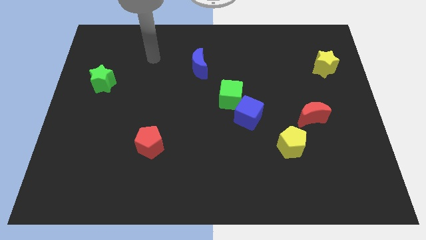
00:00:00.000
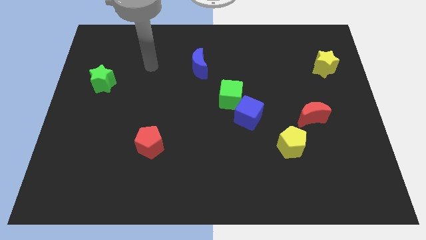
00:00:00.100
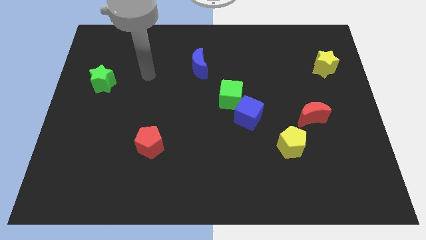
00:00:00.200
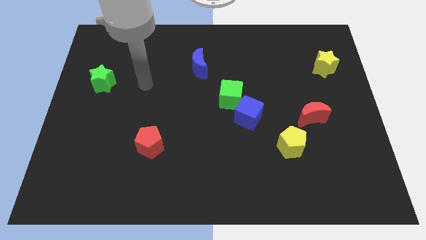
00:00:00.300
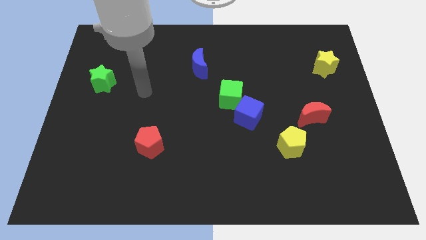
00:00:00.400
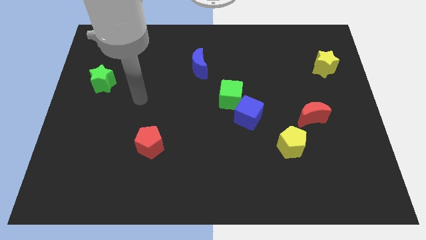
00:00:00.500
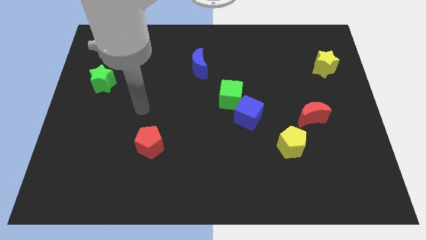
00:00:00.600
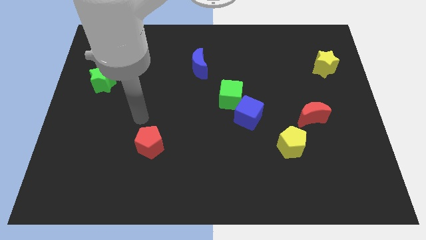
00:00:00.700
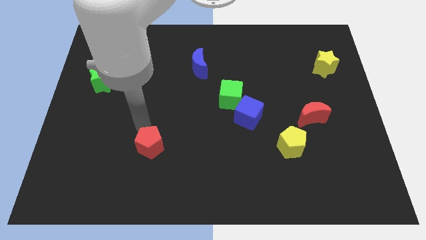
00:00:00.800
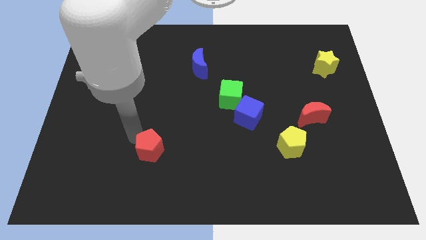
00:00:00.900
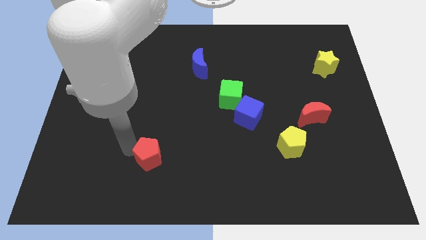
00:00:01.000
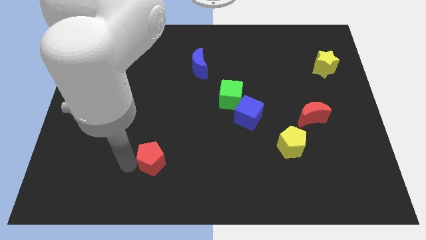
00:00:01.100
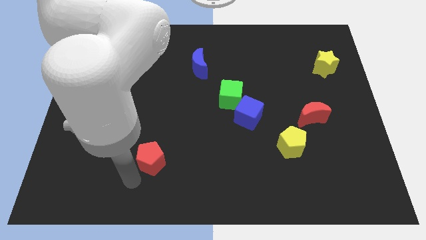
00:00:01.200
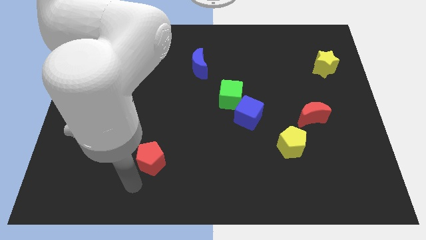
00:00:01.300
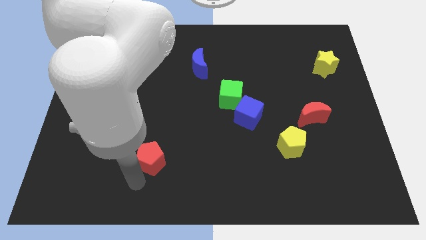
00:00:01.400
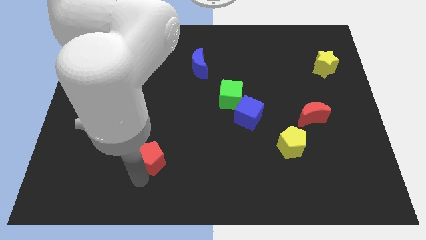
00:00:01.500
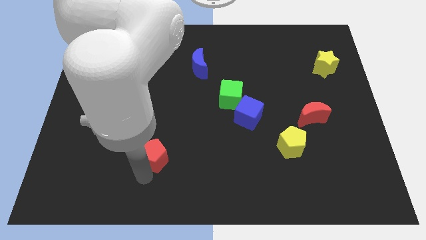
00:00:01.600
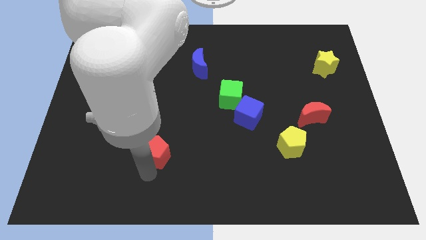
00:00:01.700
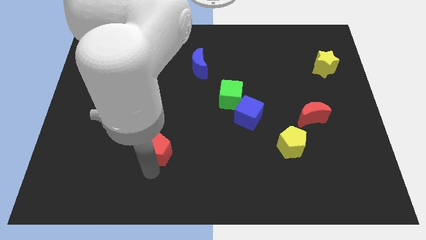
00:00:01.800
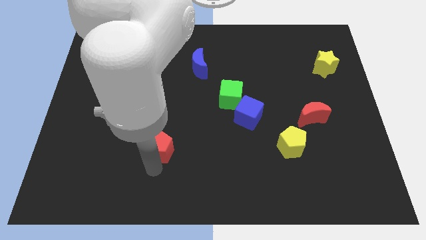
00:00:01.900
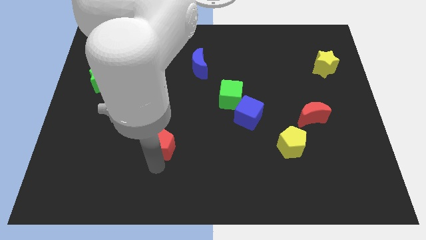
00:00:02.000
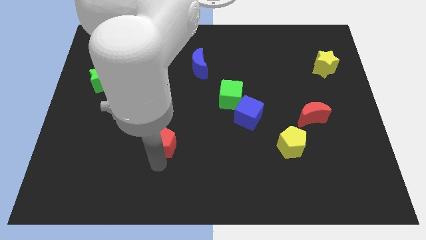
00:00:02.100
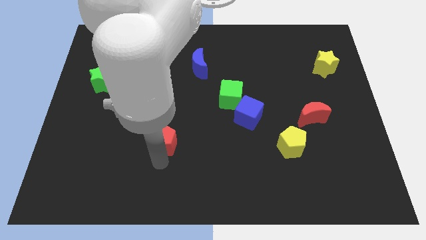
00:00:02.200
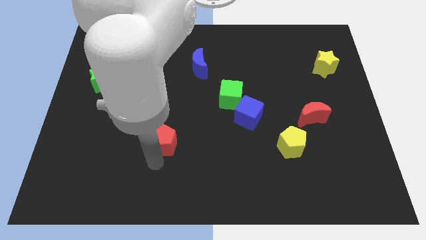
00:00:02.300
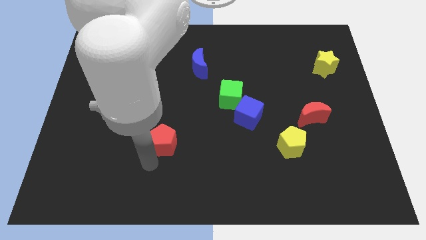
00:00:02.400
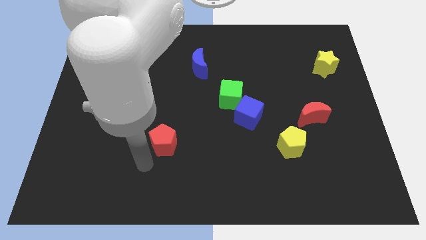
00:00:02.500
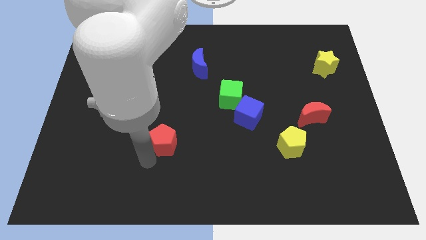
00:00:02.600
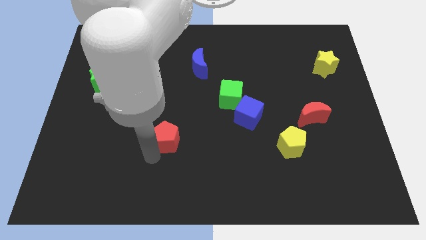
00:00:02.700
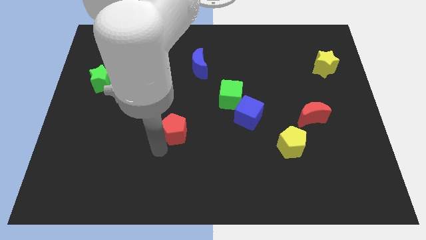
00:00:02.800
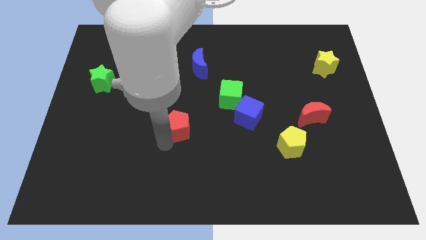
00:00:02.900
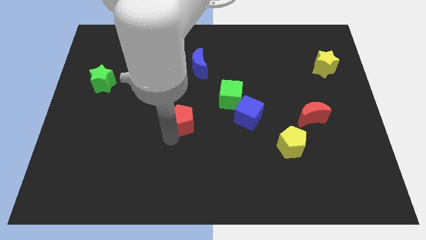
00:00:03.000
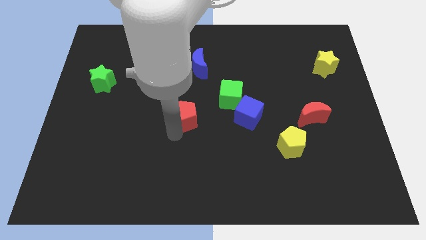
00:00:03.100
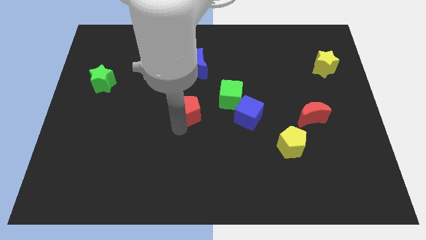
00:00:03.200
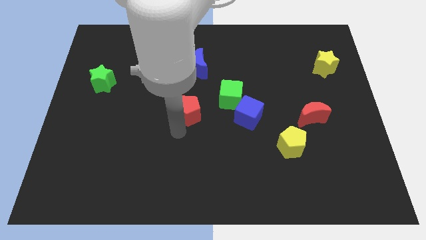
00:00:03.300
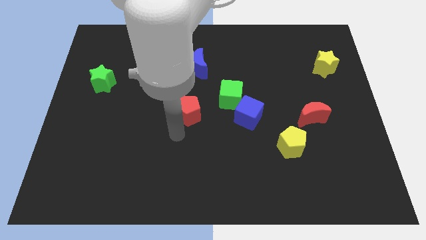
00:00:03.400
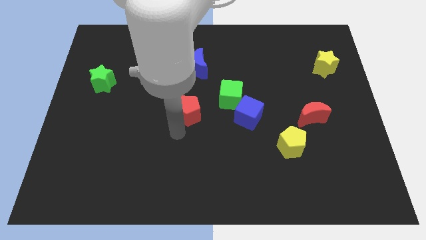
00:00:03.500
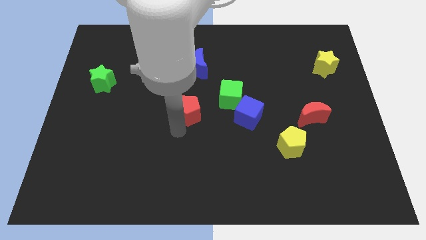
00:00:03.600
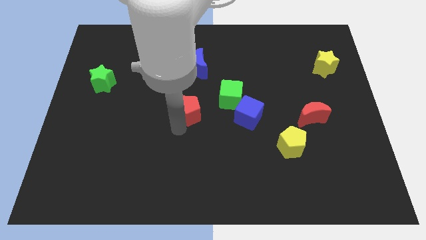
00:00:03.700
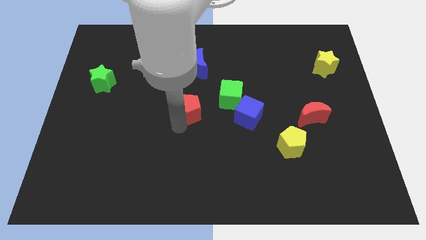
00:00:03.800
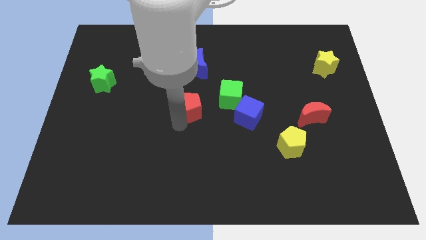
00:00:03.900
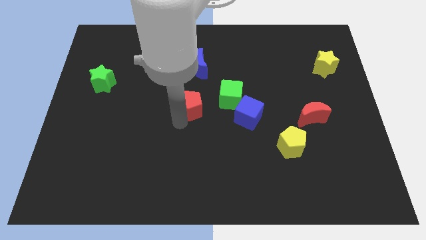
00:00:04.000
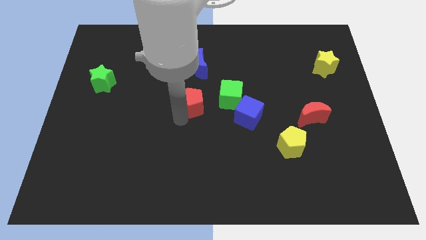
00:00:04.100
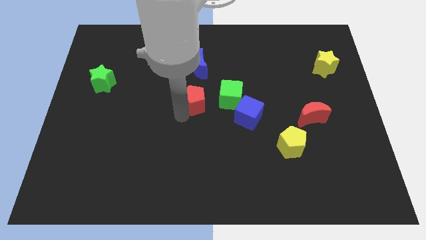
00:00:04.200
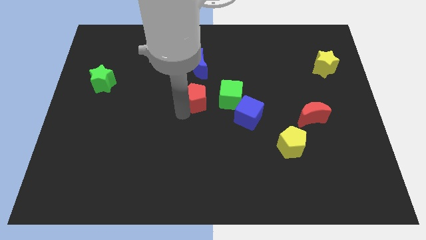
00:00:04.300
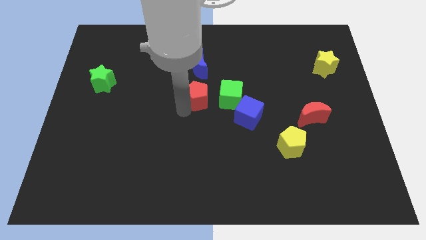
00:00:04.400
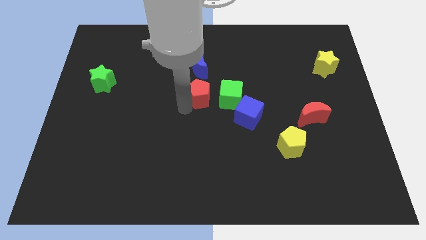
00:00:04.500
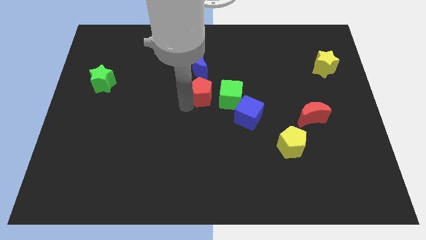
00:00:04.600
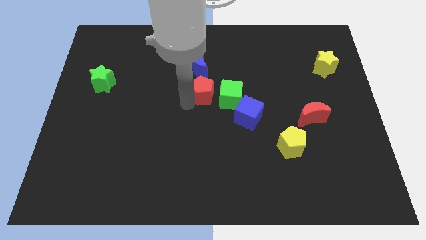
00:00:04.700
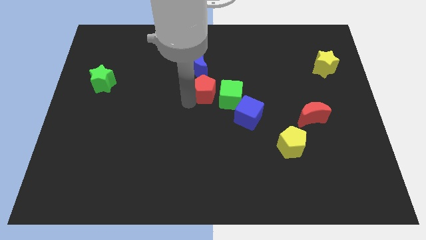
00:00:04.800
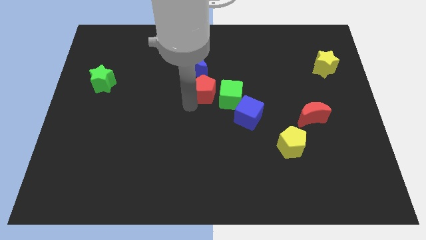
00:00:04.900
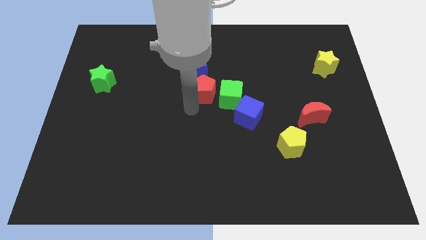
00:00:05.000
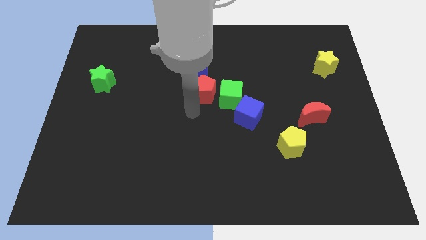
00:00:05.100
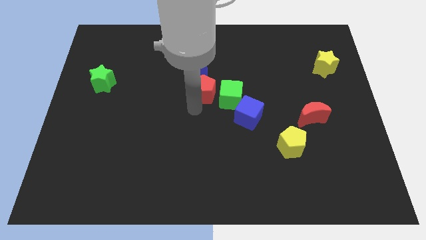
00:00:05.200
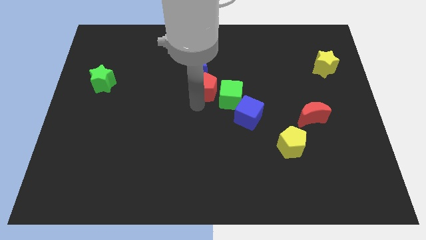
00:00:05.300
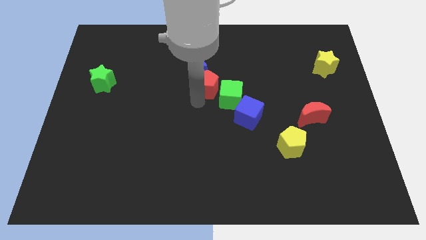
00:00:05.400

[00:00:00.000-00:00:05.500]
move the red pentagon up and then right

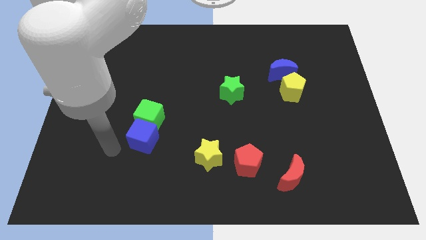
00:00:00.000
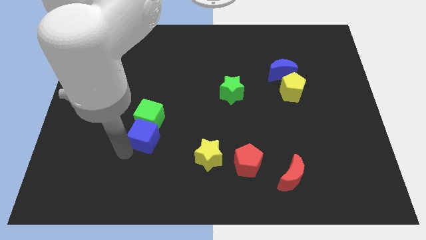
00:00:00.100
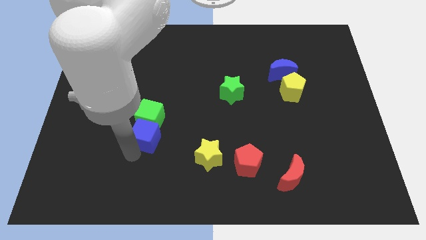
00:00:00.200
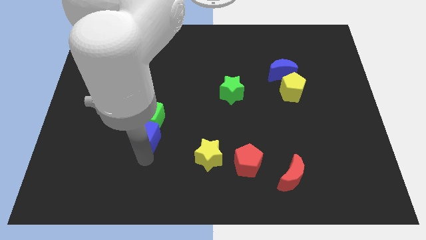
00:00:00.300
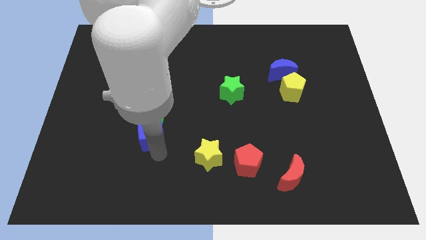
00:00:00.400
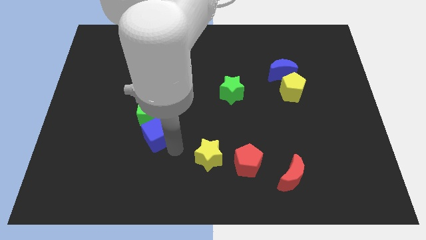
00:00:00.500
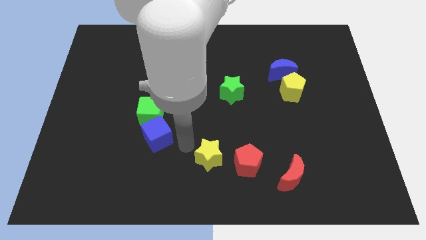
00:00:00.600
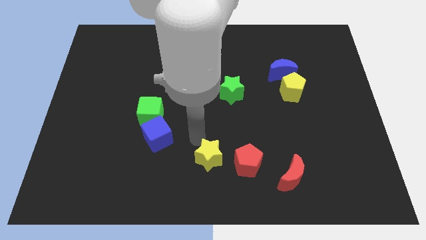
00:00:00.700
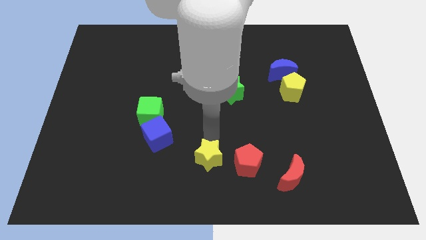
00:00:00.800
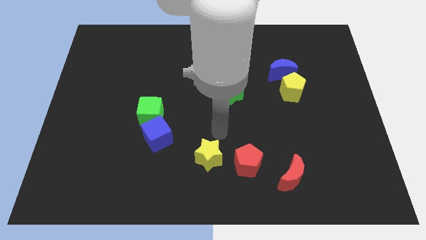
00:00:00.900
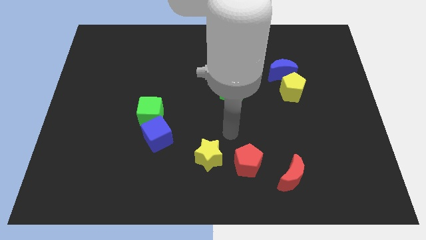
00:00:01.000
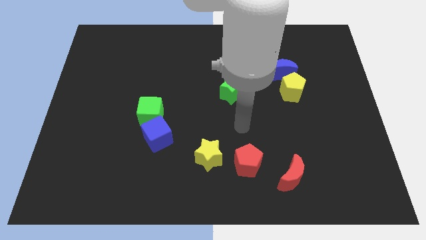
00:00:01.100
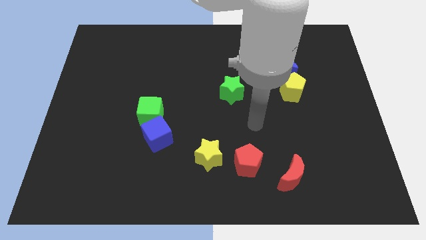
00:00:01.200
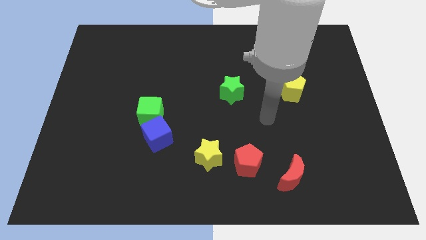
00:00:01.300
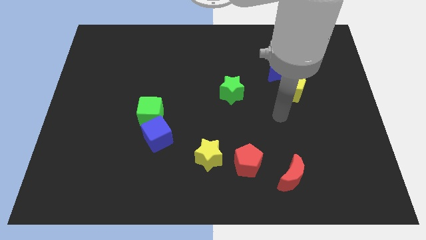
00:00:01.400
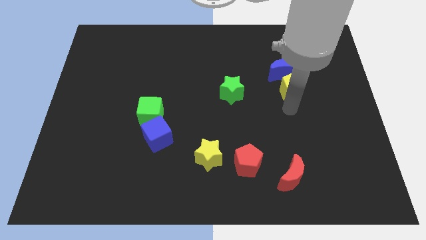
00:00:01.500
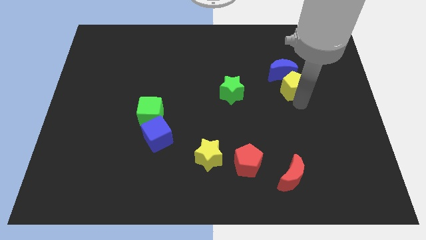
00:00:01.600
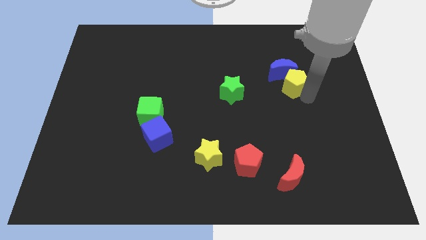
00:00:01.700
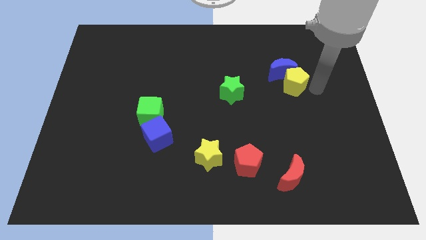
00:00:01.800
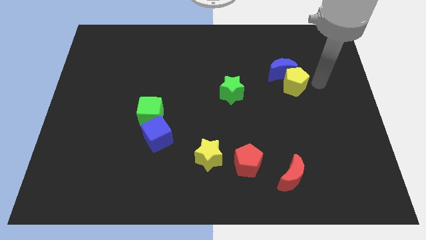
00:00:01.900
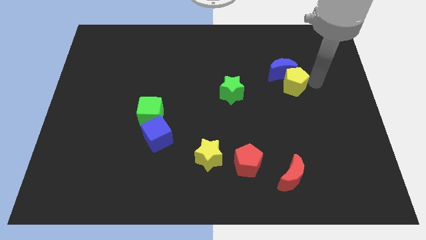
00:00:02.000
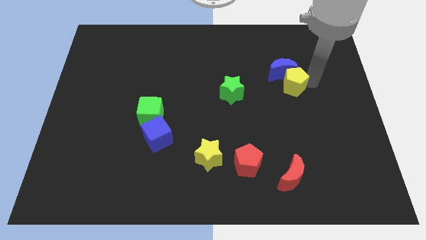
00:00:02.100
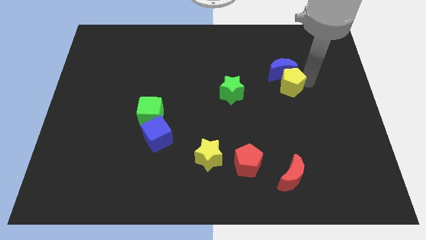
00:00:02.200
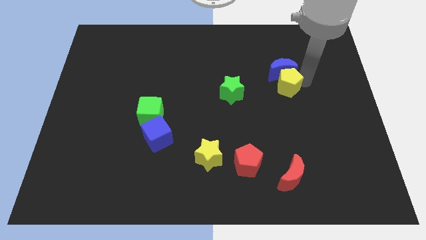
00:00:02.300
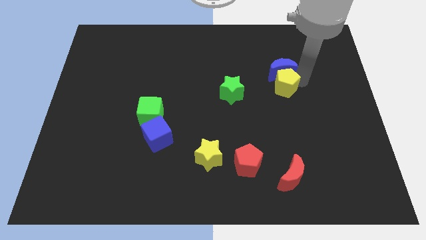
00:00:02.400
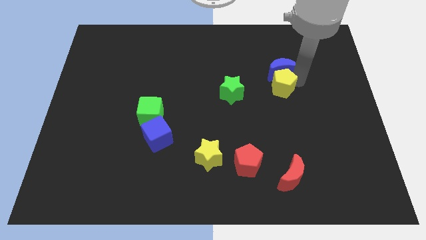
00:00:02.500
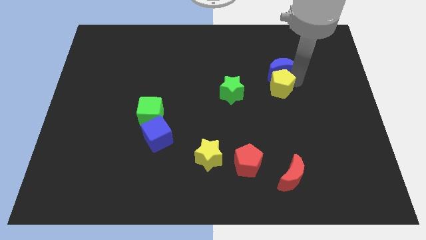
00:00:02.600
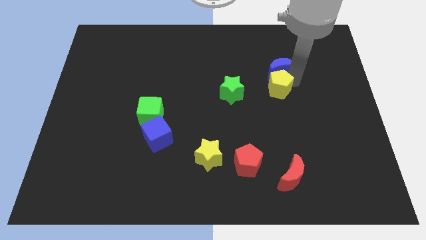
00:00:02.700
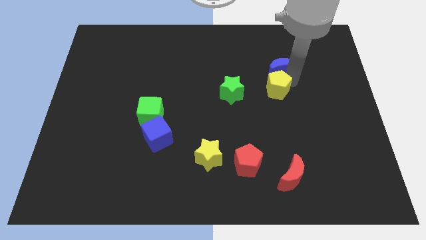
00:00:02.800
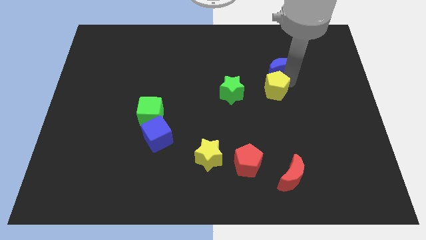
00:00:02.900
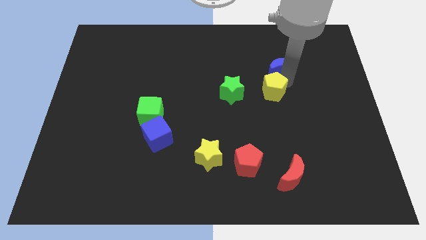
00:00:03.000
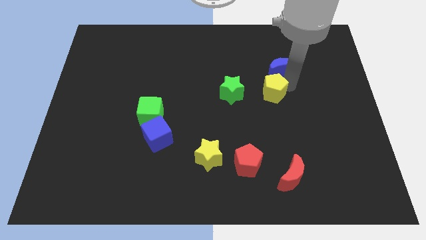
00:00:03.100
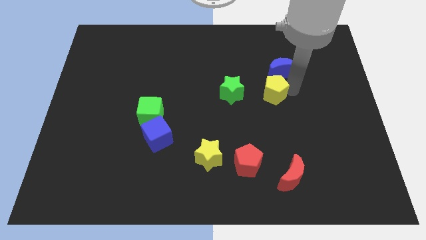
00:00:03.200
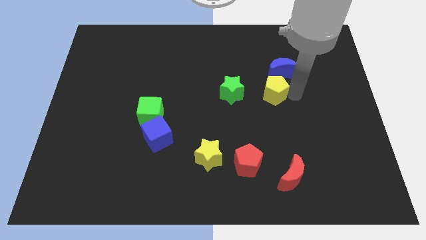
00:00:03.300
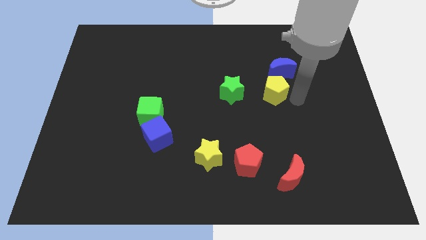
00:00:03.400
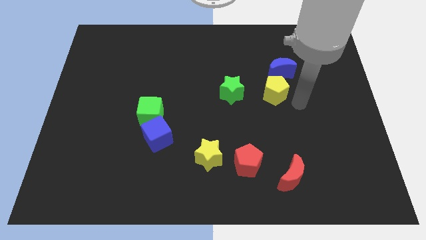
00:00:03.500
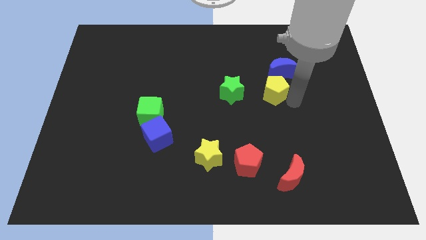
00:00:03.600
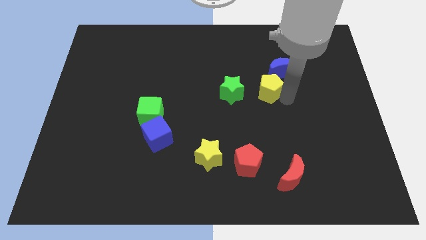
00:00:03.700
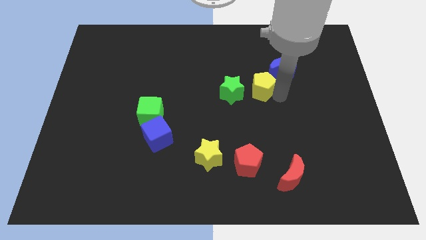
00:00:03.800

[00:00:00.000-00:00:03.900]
move the yellow pentagon a bit to the left
